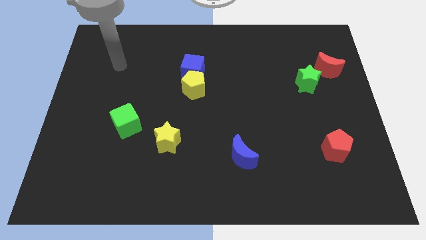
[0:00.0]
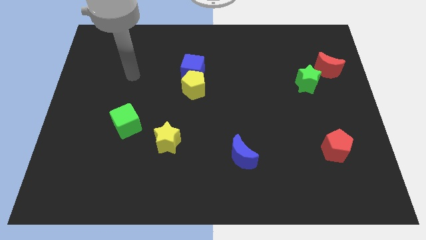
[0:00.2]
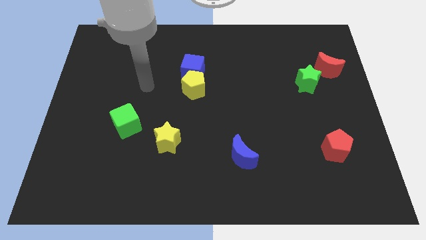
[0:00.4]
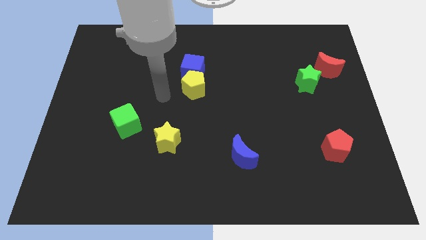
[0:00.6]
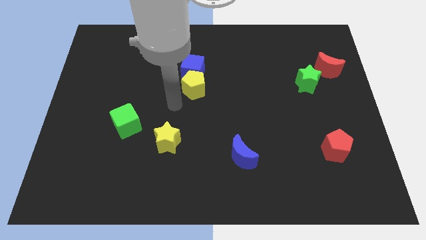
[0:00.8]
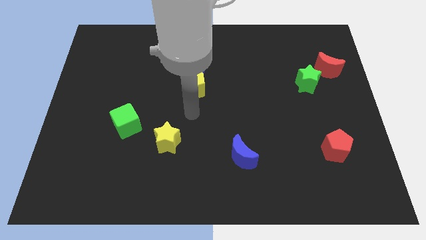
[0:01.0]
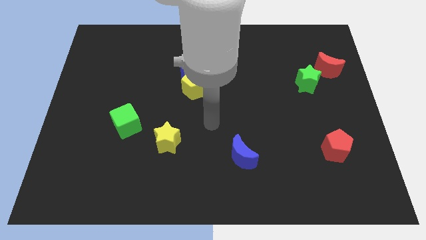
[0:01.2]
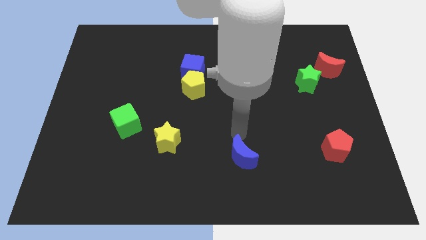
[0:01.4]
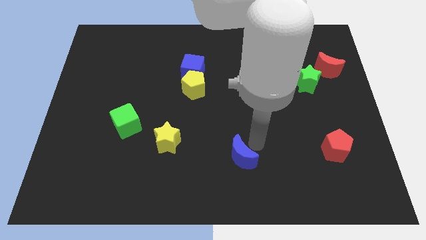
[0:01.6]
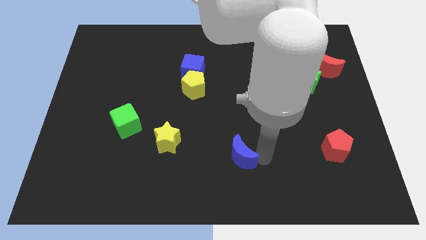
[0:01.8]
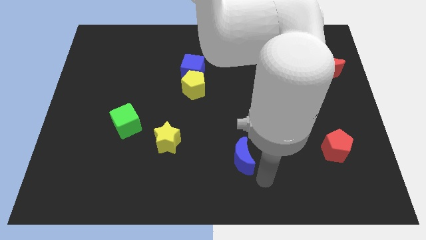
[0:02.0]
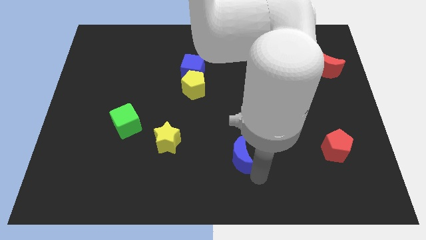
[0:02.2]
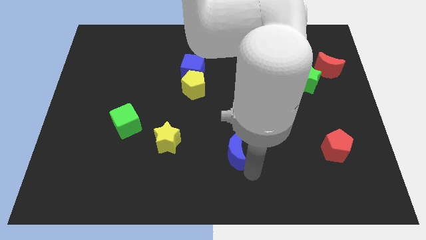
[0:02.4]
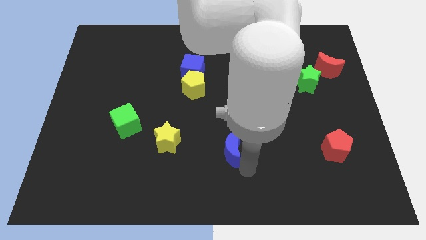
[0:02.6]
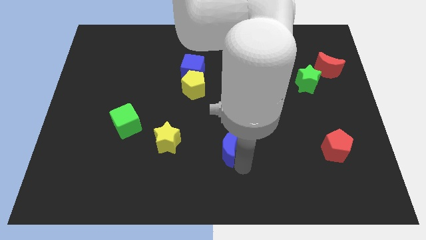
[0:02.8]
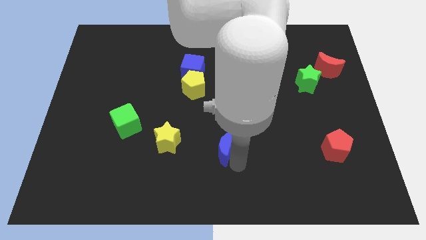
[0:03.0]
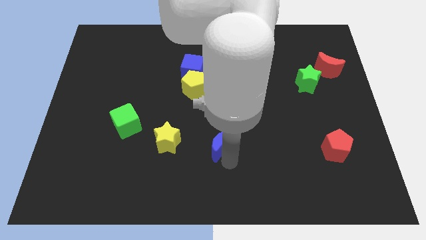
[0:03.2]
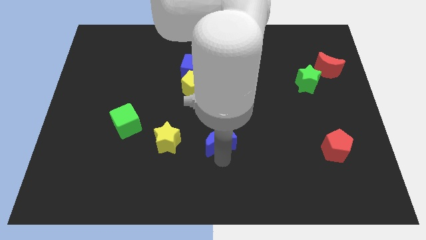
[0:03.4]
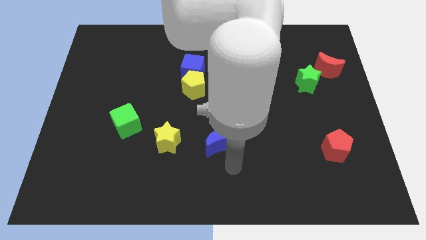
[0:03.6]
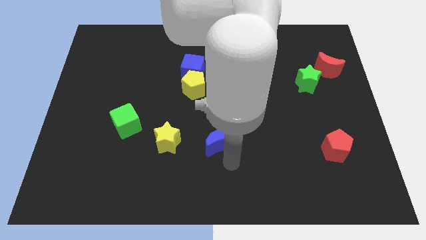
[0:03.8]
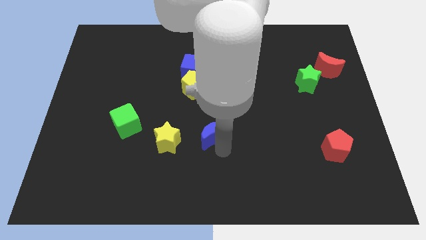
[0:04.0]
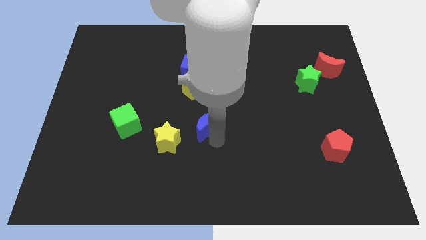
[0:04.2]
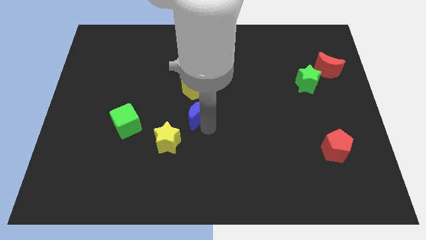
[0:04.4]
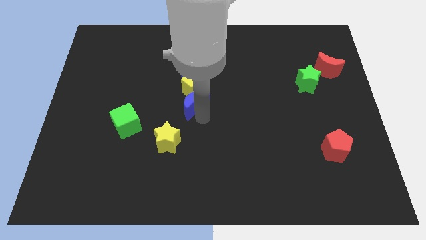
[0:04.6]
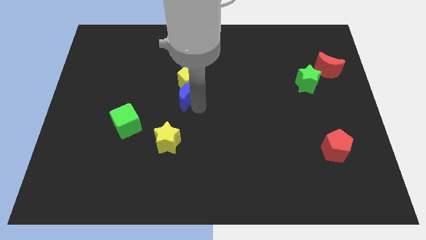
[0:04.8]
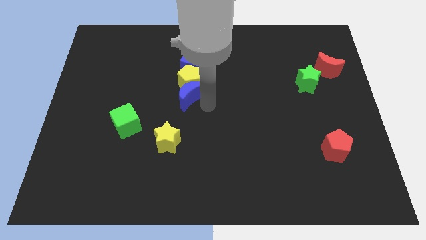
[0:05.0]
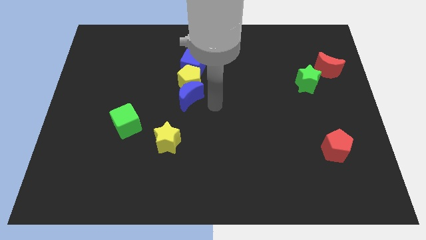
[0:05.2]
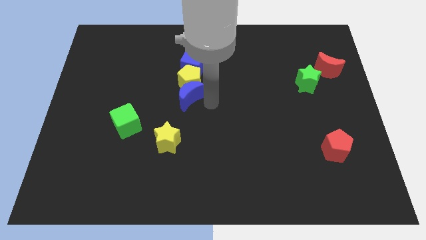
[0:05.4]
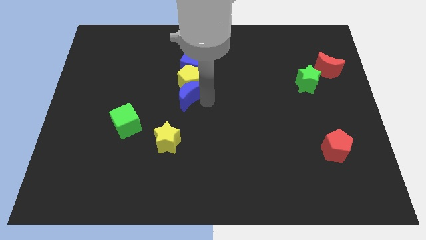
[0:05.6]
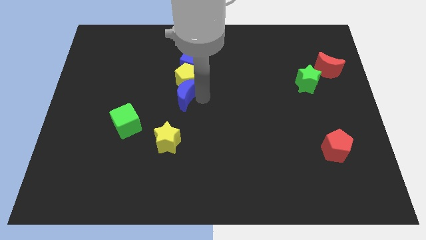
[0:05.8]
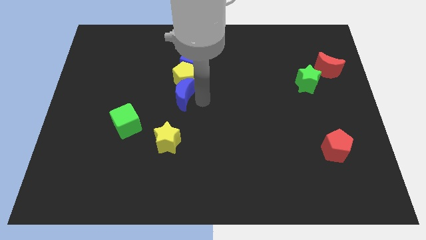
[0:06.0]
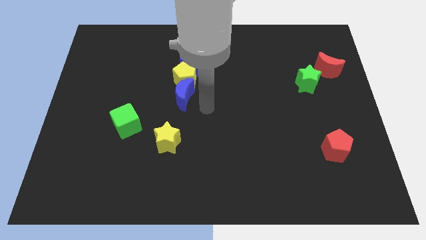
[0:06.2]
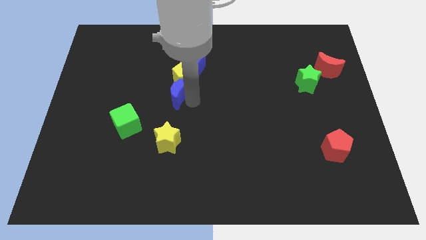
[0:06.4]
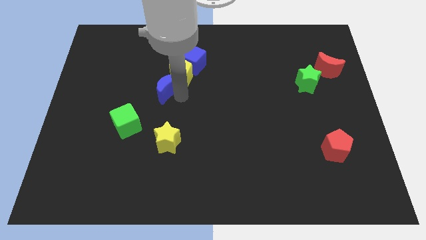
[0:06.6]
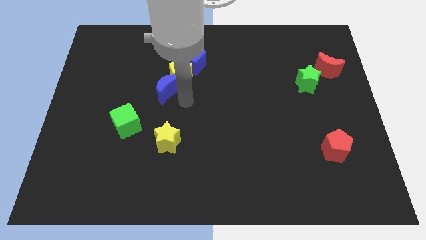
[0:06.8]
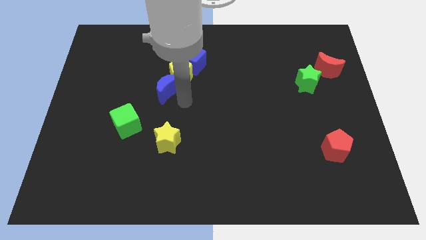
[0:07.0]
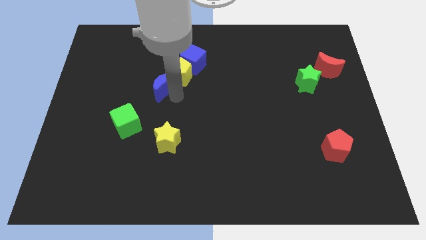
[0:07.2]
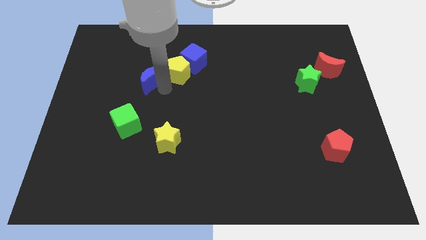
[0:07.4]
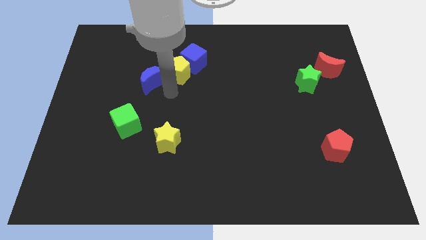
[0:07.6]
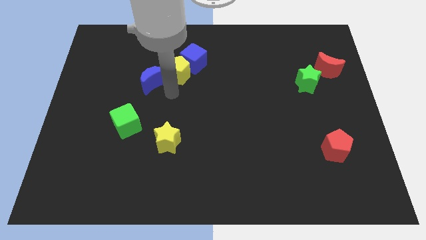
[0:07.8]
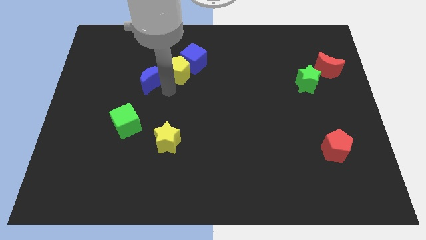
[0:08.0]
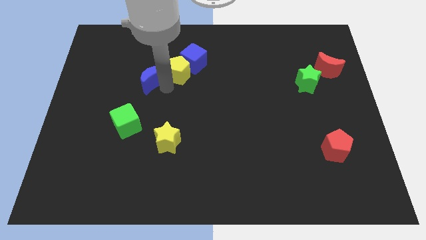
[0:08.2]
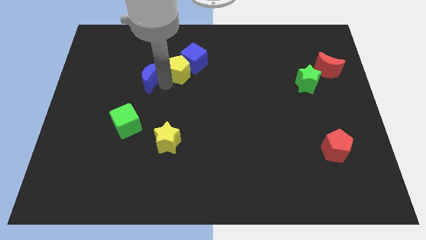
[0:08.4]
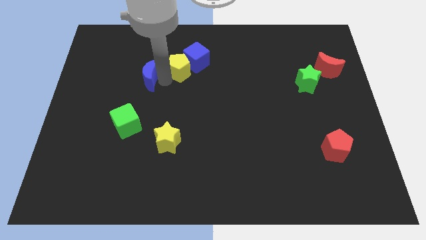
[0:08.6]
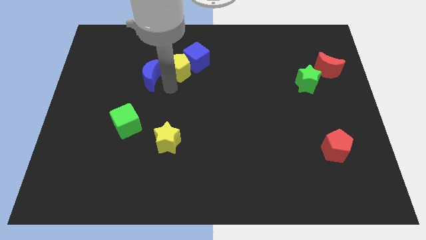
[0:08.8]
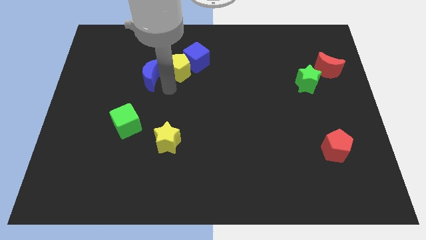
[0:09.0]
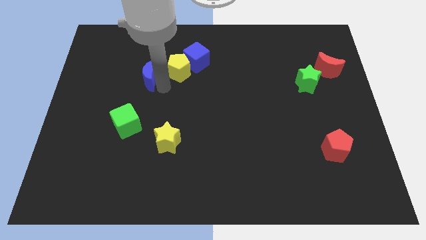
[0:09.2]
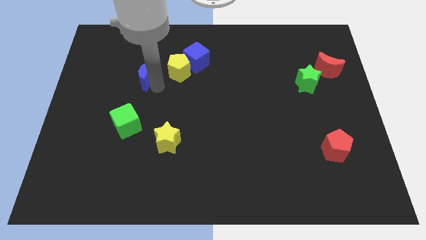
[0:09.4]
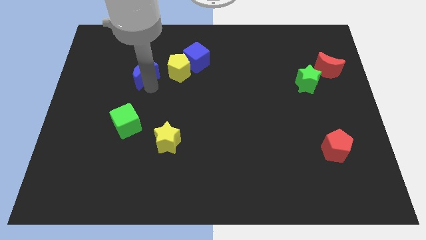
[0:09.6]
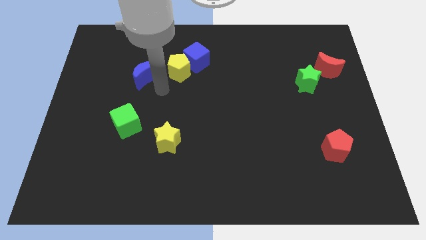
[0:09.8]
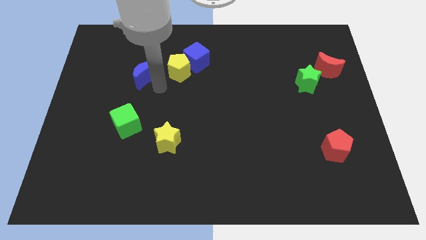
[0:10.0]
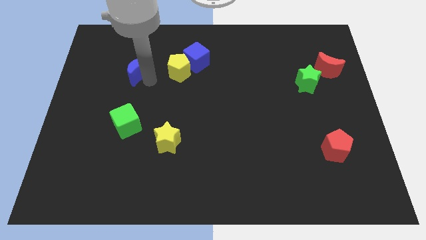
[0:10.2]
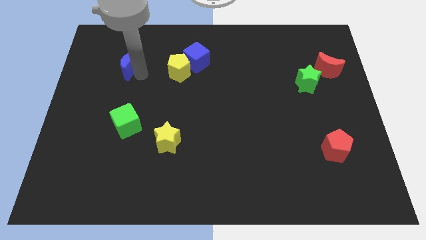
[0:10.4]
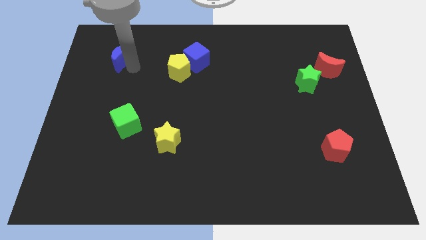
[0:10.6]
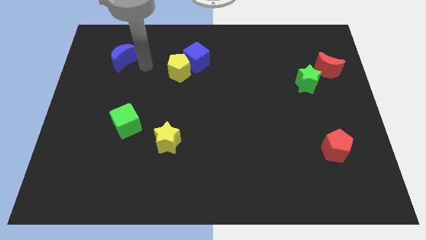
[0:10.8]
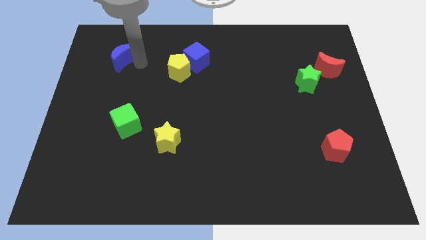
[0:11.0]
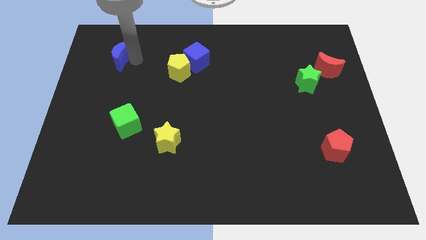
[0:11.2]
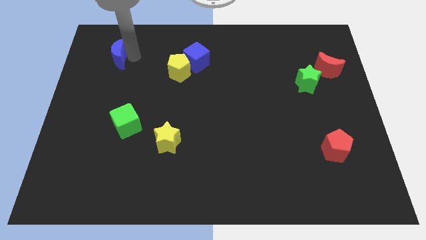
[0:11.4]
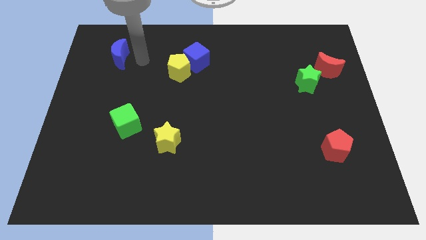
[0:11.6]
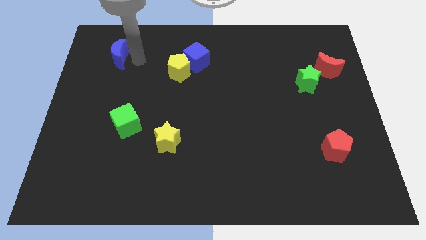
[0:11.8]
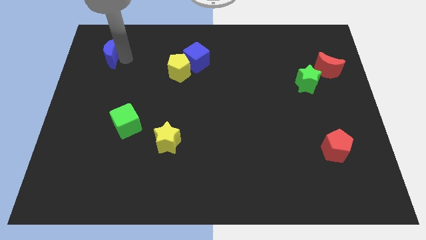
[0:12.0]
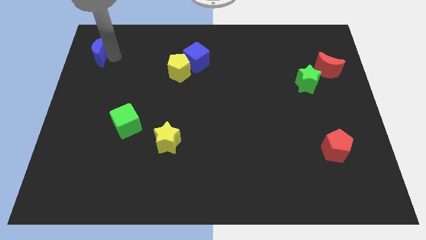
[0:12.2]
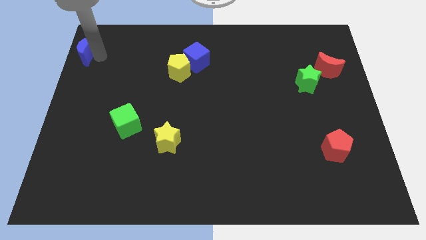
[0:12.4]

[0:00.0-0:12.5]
slide the blue moon to the top left

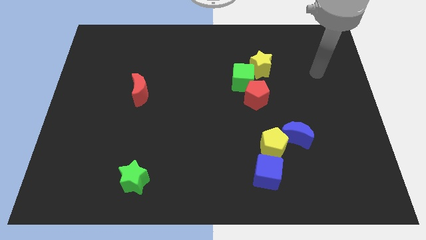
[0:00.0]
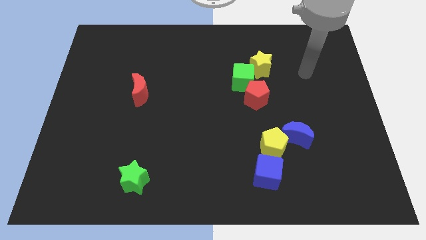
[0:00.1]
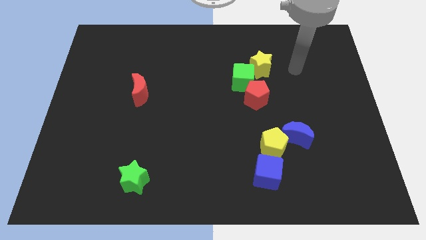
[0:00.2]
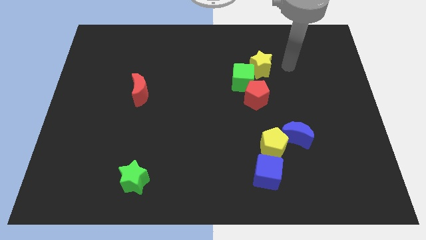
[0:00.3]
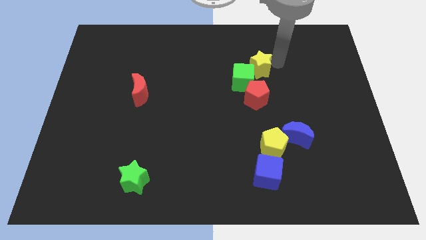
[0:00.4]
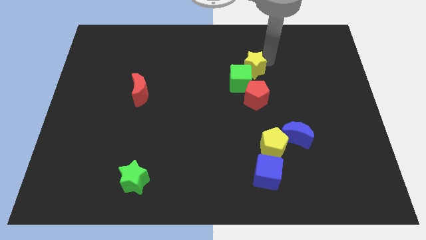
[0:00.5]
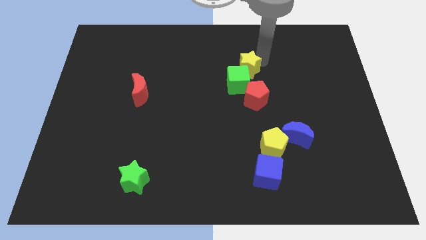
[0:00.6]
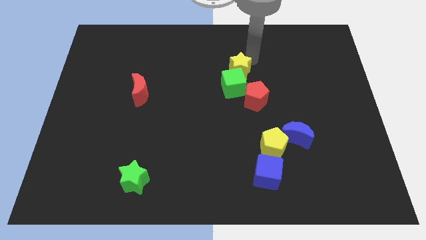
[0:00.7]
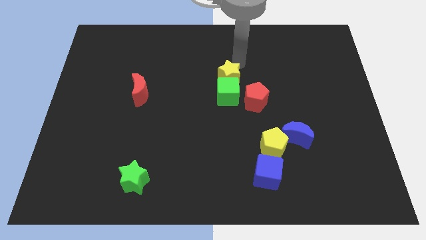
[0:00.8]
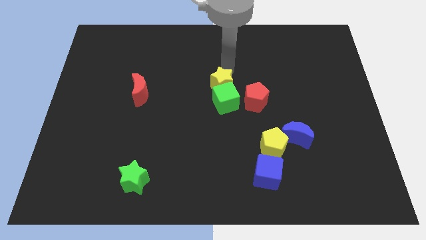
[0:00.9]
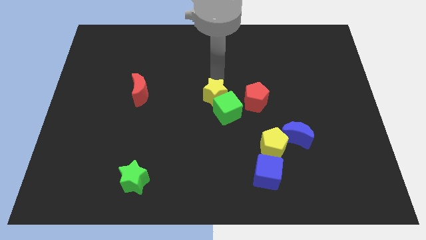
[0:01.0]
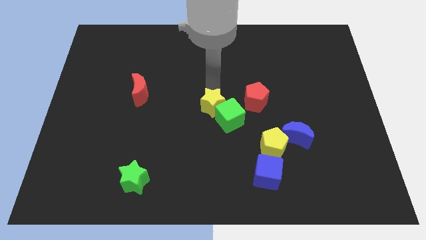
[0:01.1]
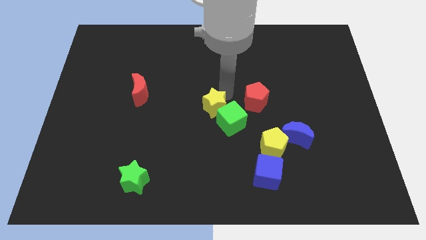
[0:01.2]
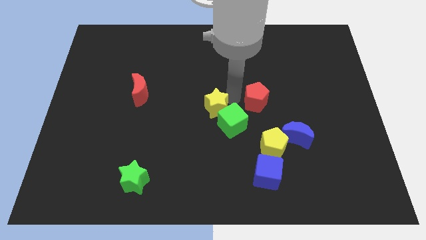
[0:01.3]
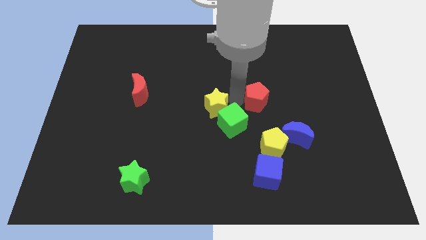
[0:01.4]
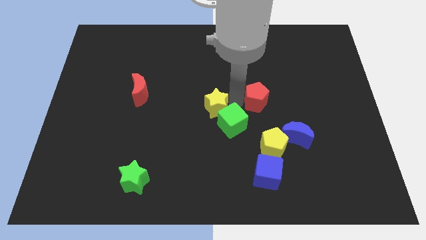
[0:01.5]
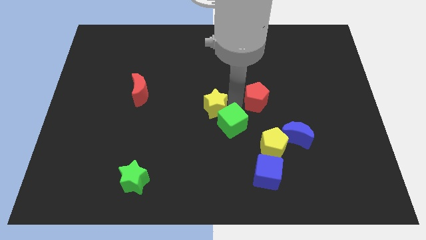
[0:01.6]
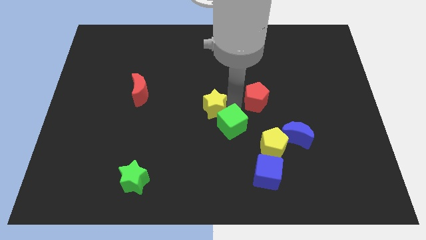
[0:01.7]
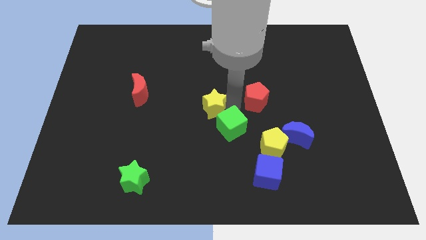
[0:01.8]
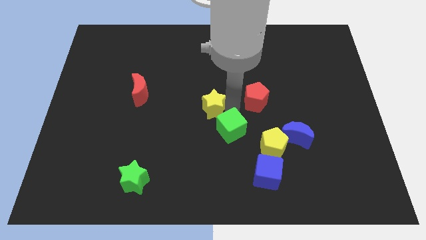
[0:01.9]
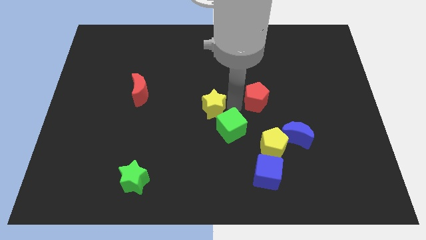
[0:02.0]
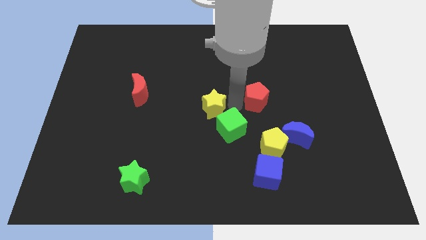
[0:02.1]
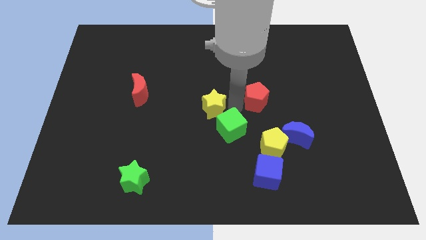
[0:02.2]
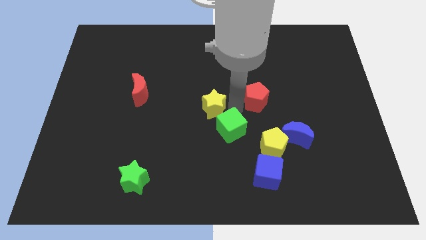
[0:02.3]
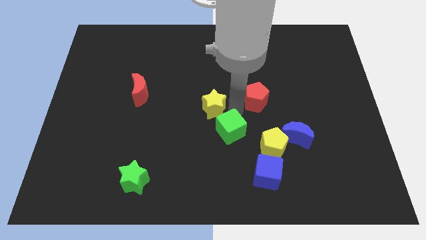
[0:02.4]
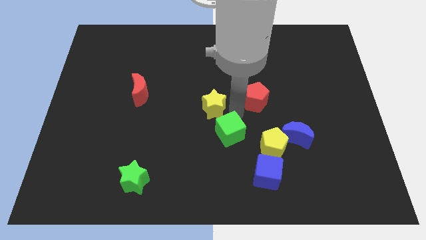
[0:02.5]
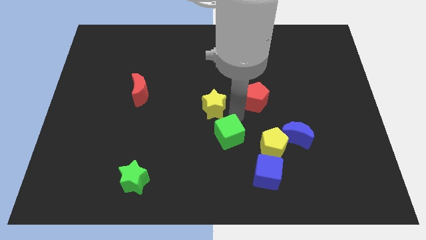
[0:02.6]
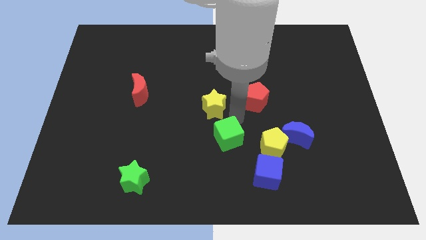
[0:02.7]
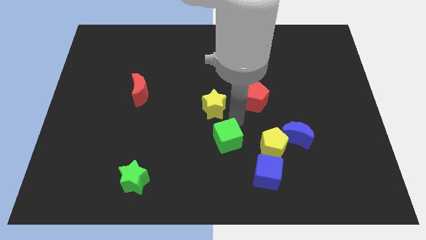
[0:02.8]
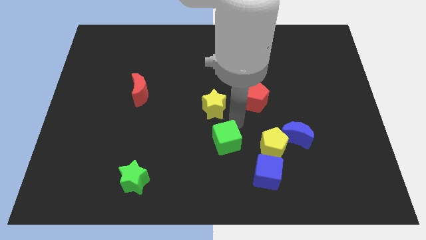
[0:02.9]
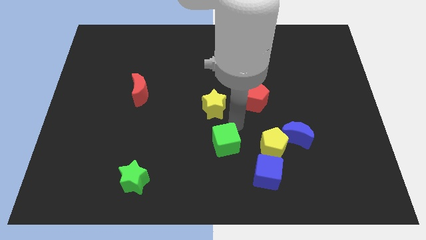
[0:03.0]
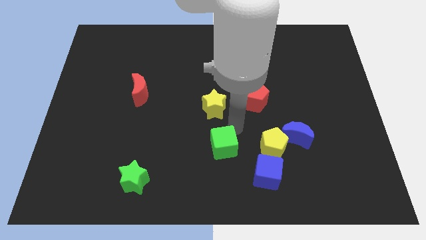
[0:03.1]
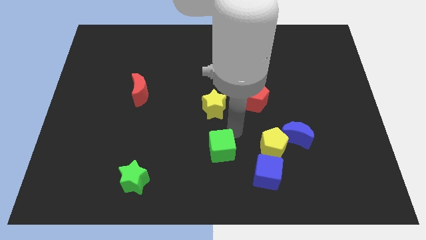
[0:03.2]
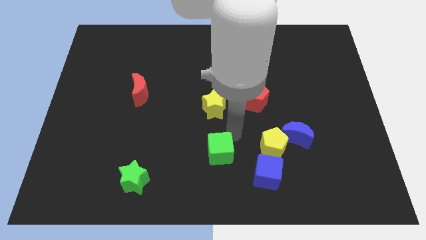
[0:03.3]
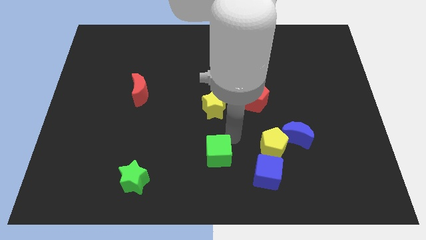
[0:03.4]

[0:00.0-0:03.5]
move the green cube to the bottom
